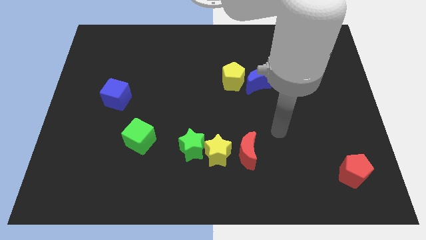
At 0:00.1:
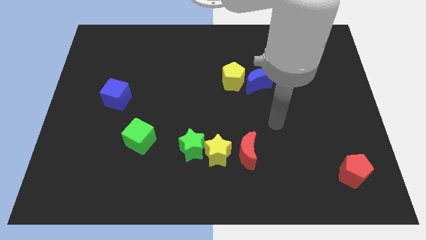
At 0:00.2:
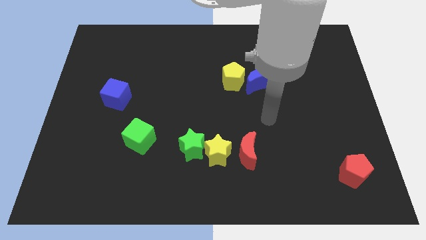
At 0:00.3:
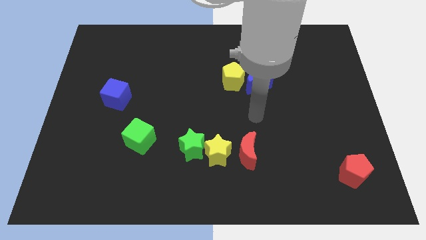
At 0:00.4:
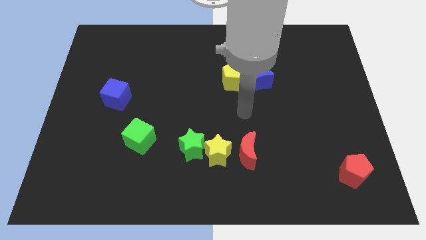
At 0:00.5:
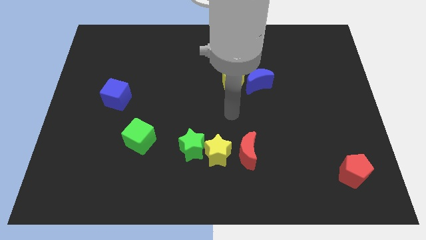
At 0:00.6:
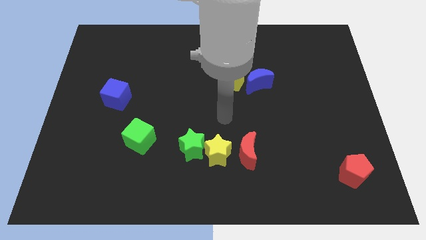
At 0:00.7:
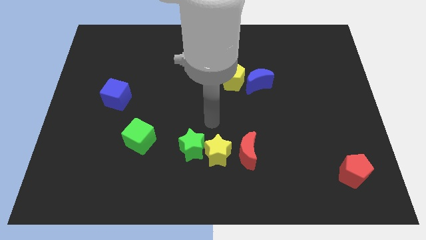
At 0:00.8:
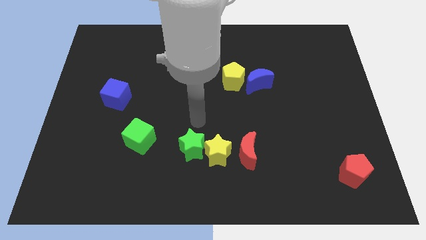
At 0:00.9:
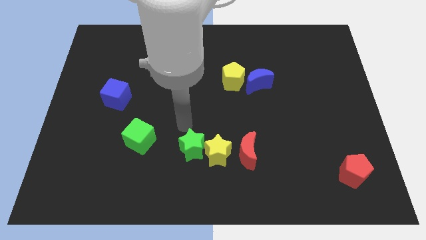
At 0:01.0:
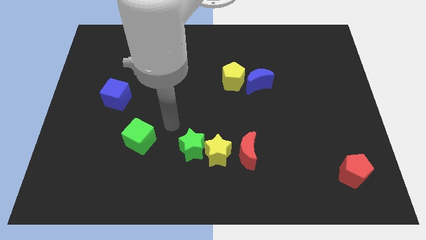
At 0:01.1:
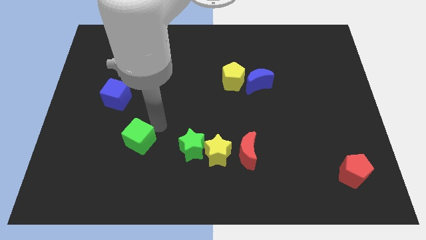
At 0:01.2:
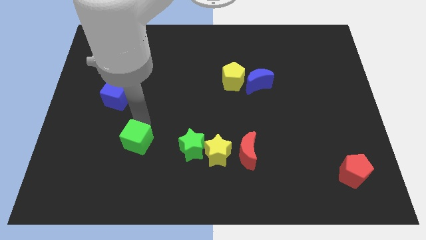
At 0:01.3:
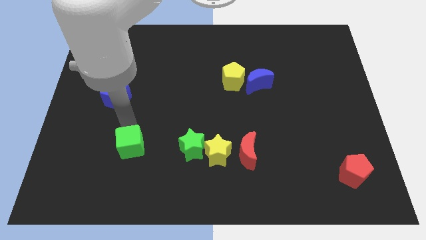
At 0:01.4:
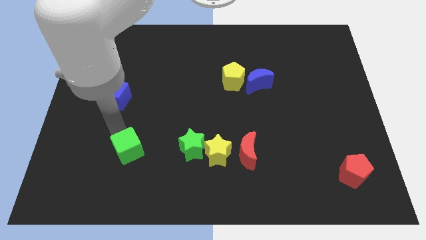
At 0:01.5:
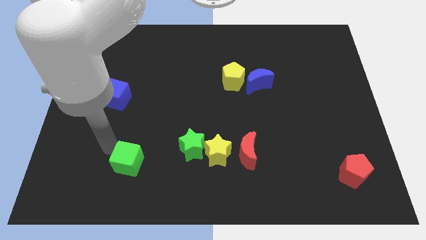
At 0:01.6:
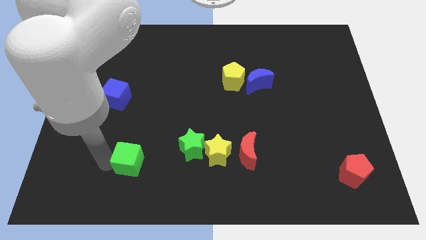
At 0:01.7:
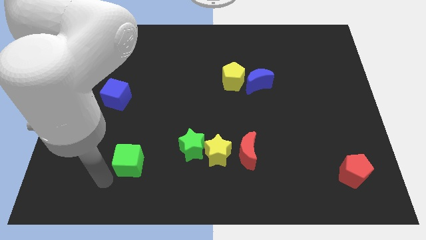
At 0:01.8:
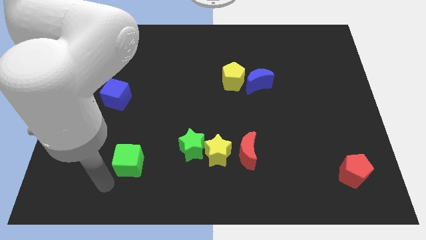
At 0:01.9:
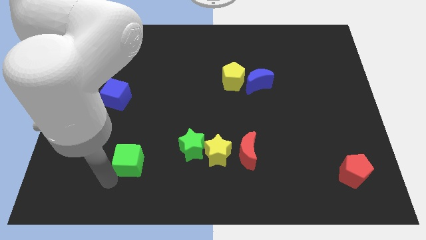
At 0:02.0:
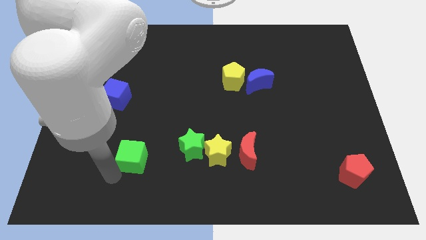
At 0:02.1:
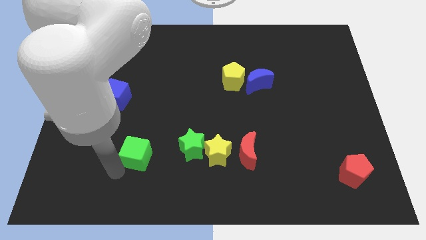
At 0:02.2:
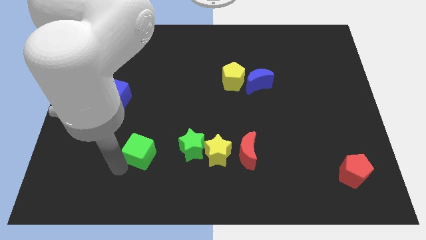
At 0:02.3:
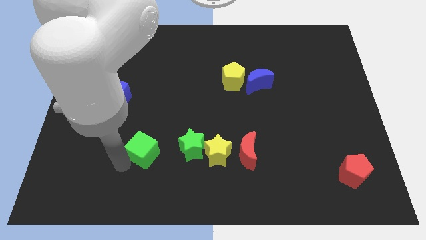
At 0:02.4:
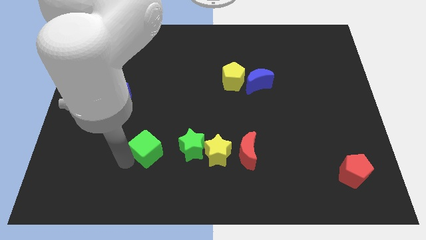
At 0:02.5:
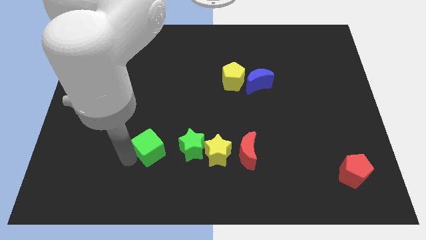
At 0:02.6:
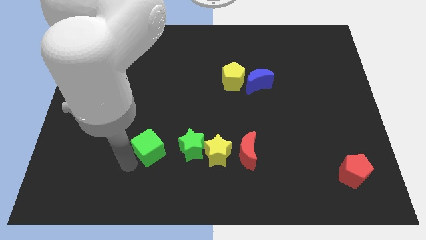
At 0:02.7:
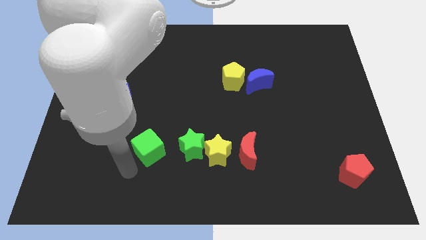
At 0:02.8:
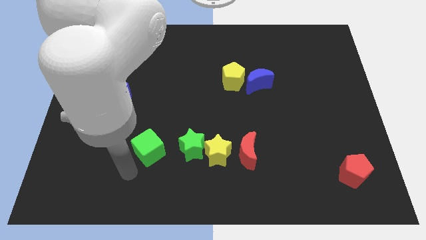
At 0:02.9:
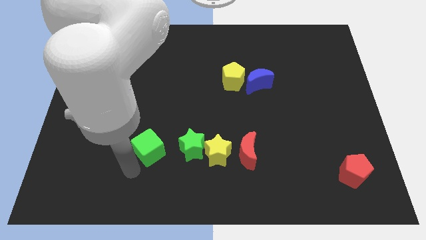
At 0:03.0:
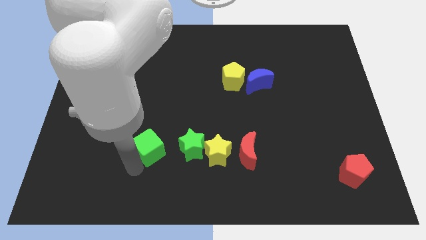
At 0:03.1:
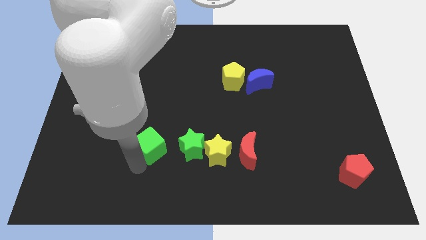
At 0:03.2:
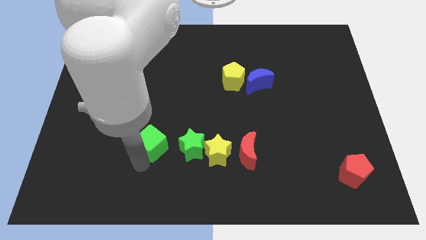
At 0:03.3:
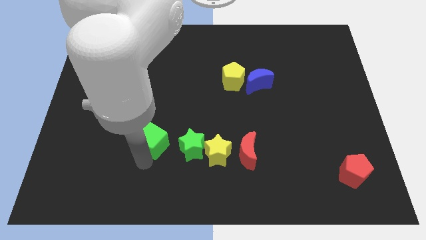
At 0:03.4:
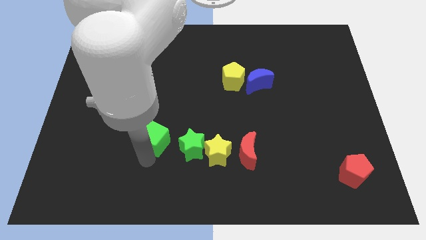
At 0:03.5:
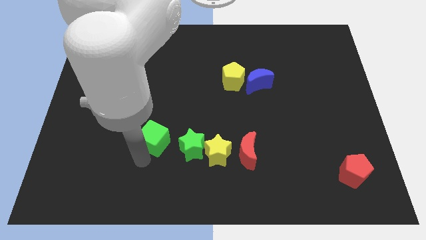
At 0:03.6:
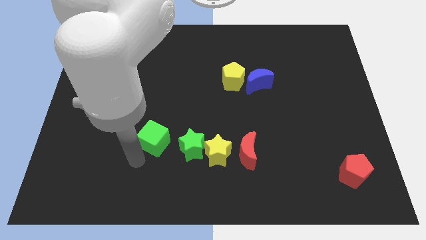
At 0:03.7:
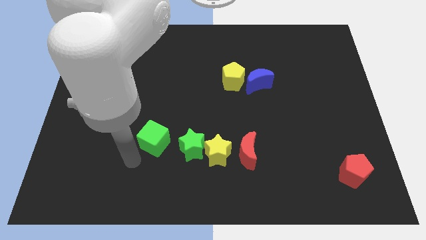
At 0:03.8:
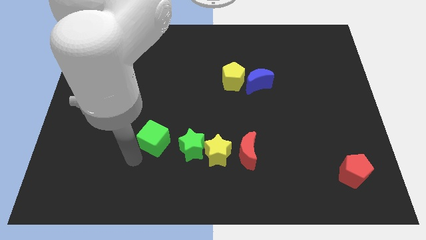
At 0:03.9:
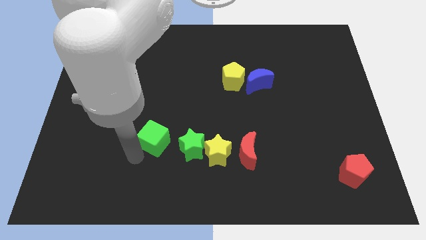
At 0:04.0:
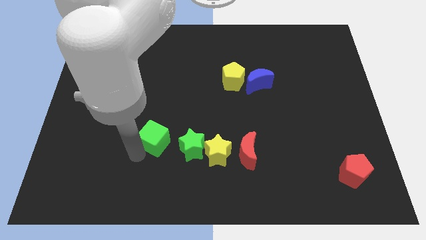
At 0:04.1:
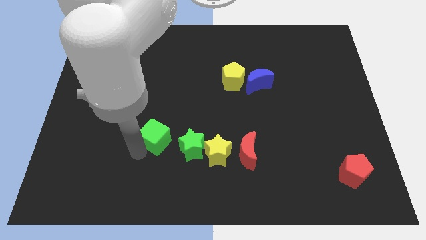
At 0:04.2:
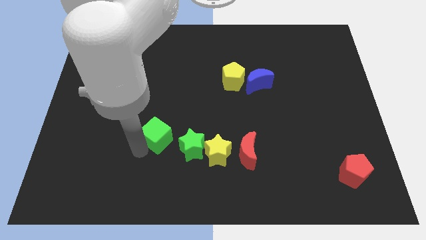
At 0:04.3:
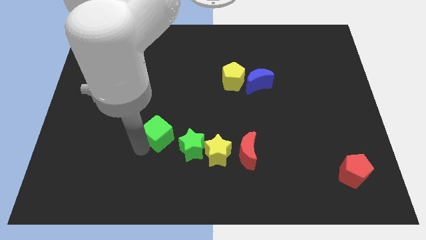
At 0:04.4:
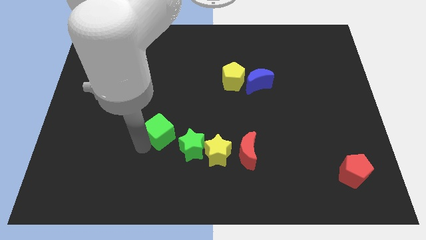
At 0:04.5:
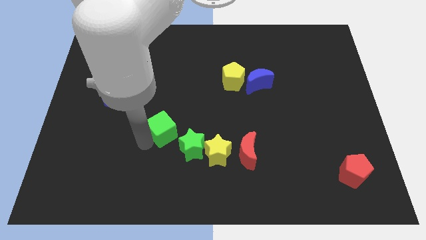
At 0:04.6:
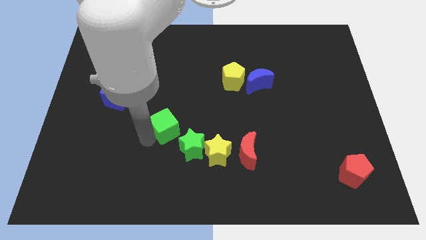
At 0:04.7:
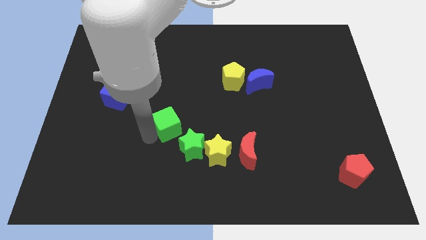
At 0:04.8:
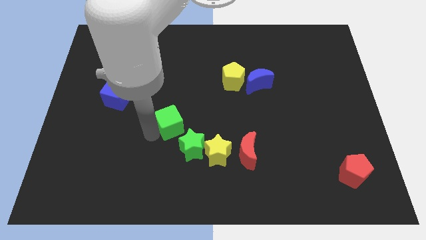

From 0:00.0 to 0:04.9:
push the green cube to the center of the board

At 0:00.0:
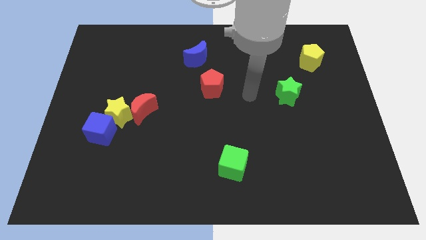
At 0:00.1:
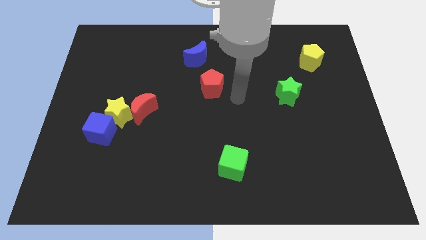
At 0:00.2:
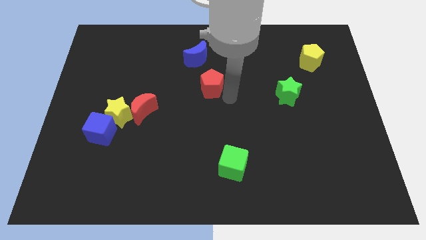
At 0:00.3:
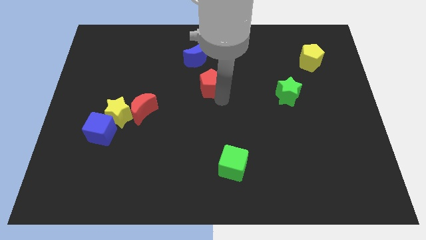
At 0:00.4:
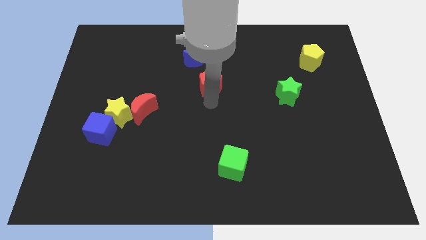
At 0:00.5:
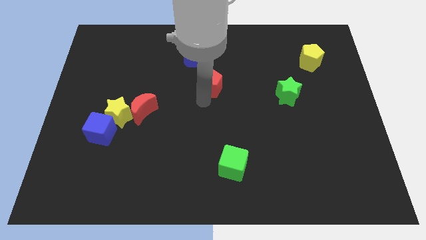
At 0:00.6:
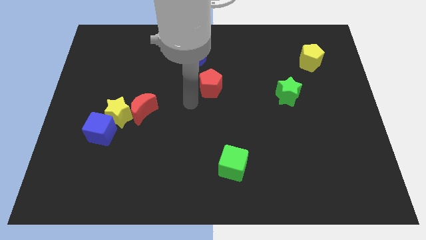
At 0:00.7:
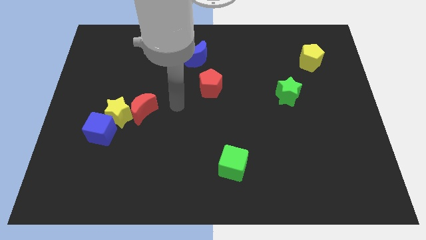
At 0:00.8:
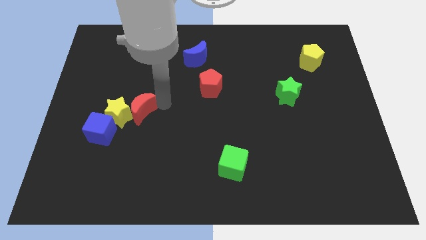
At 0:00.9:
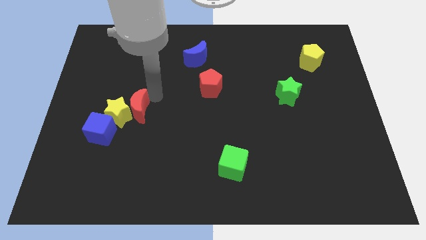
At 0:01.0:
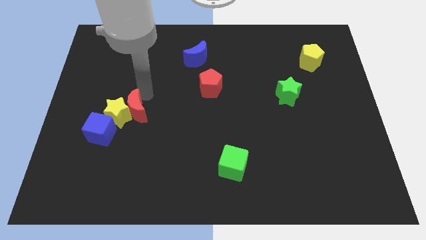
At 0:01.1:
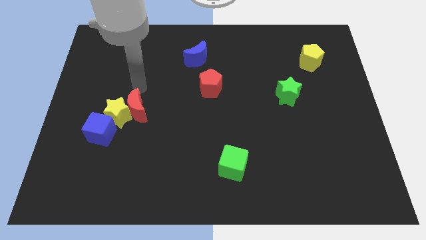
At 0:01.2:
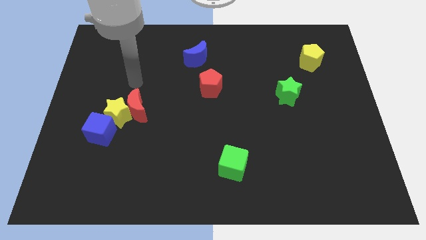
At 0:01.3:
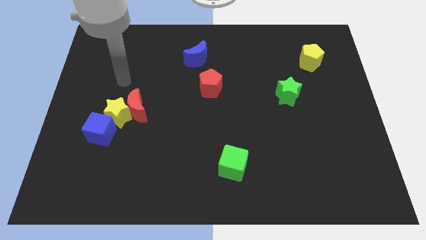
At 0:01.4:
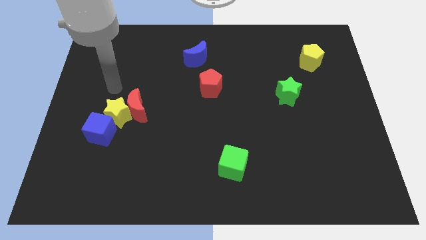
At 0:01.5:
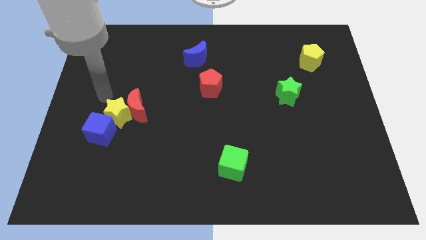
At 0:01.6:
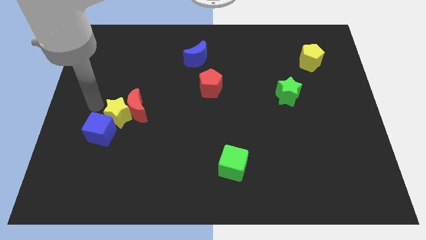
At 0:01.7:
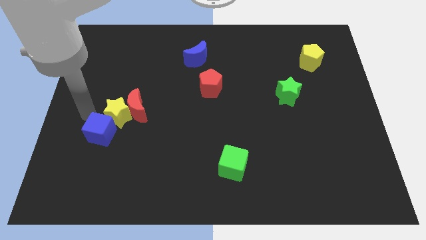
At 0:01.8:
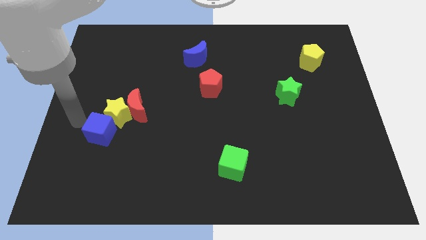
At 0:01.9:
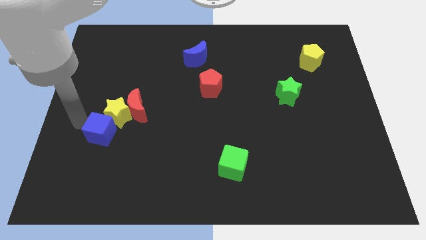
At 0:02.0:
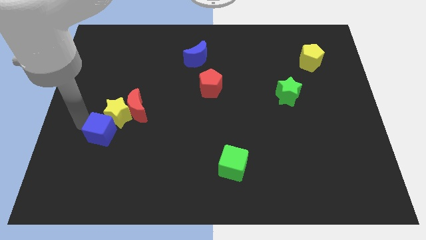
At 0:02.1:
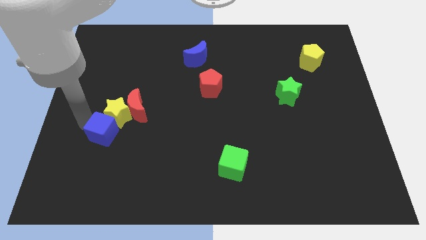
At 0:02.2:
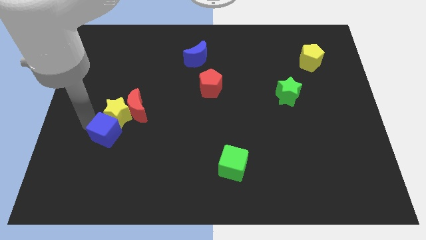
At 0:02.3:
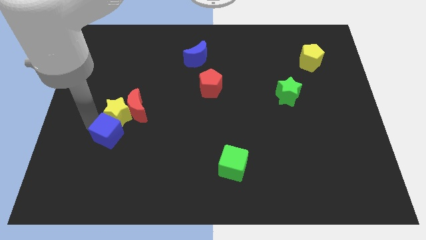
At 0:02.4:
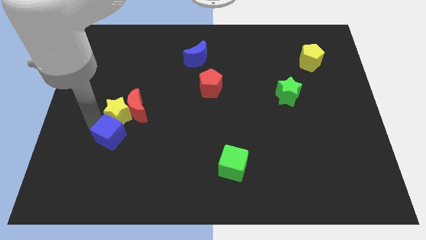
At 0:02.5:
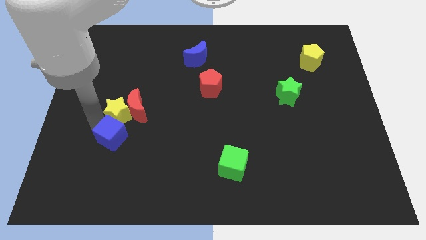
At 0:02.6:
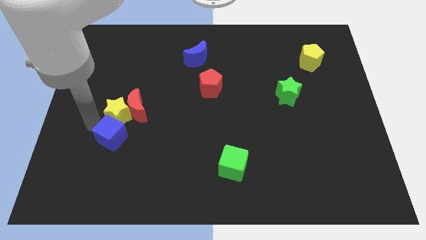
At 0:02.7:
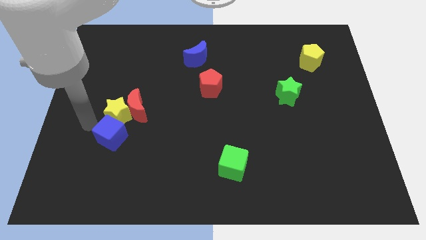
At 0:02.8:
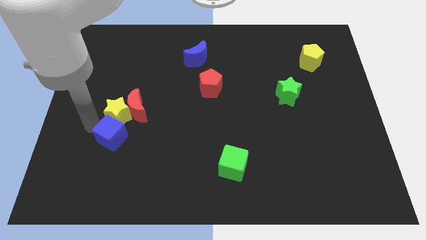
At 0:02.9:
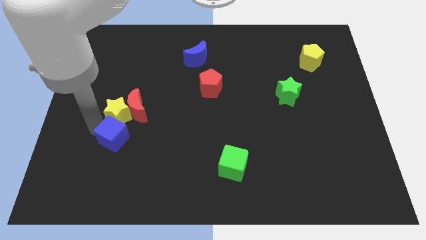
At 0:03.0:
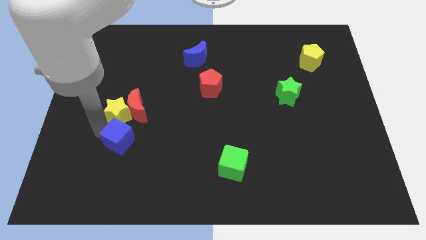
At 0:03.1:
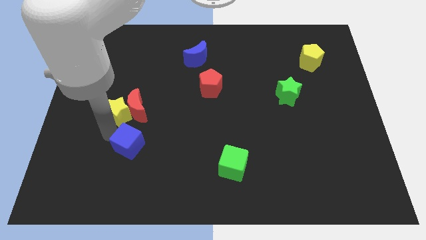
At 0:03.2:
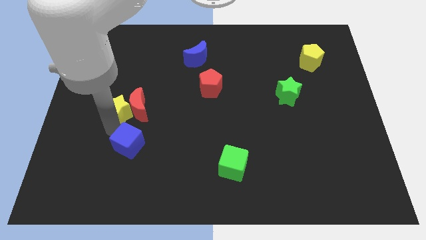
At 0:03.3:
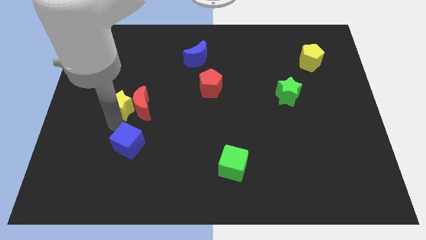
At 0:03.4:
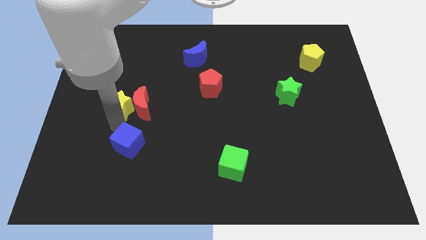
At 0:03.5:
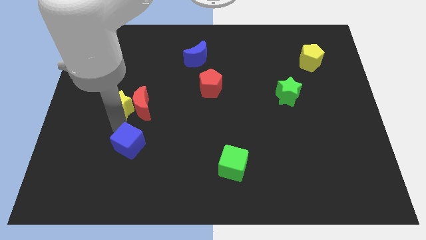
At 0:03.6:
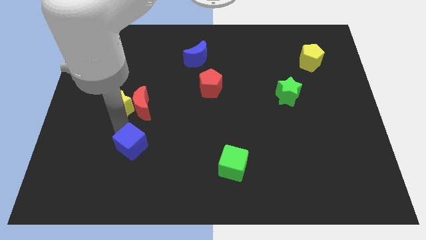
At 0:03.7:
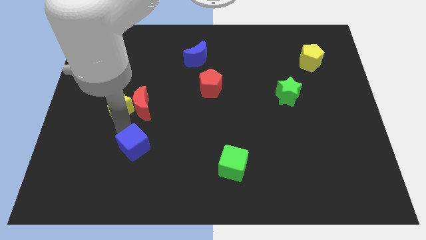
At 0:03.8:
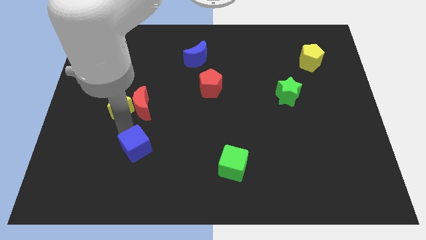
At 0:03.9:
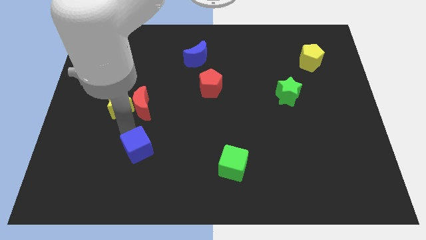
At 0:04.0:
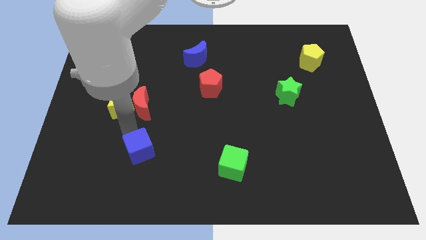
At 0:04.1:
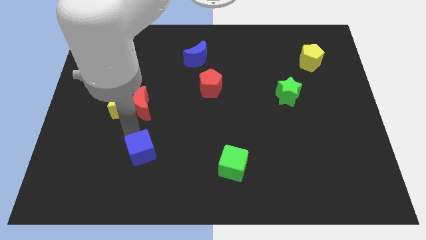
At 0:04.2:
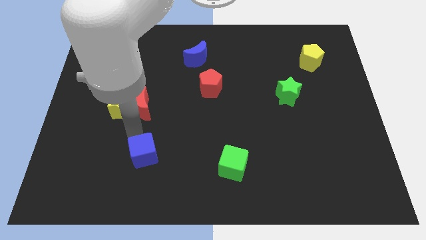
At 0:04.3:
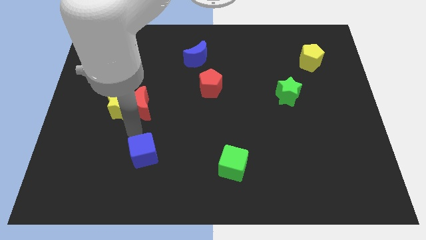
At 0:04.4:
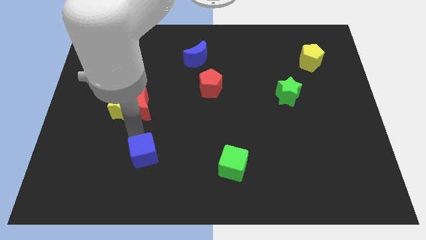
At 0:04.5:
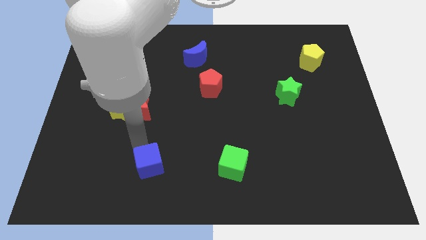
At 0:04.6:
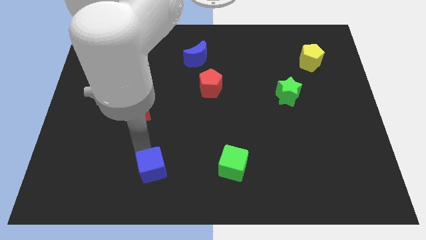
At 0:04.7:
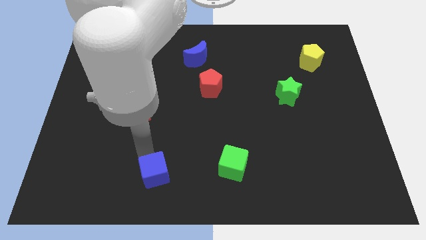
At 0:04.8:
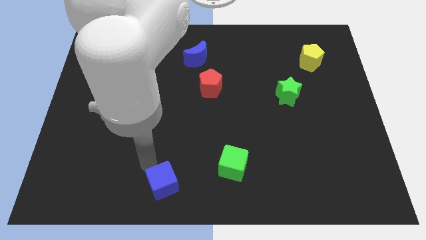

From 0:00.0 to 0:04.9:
slide the blue cube to the bottom side
